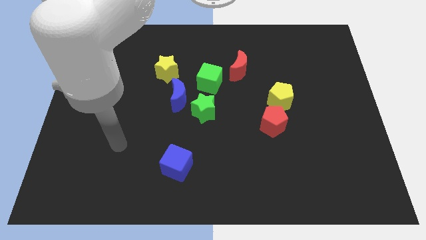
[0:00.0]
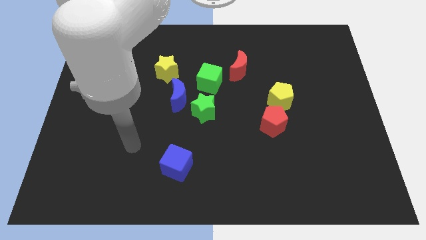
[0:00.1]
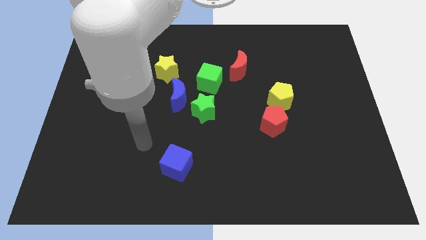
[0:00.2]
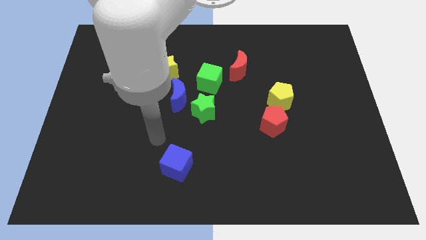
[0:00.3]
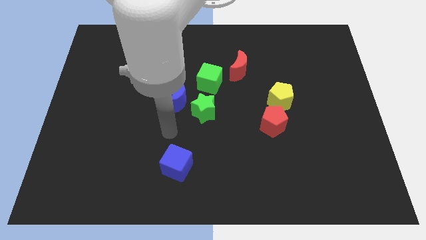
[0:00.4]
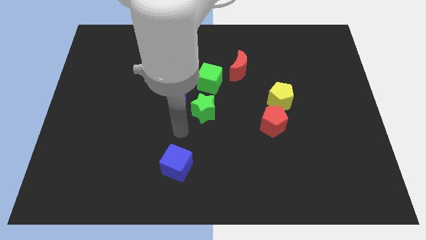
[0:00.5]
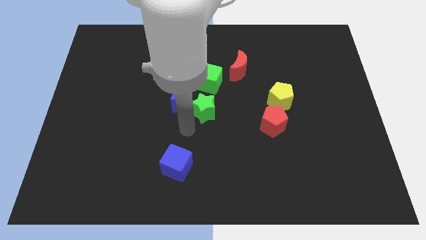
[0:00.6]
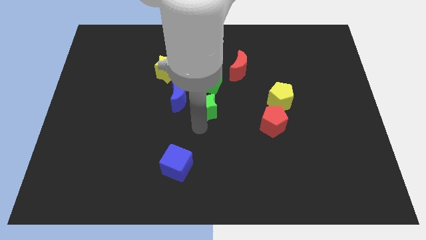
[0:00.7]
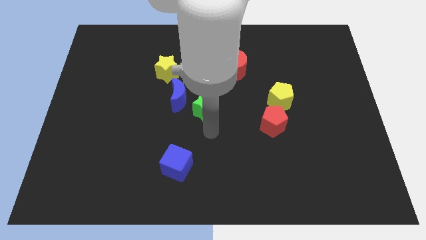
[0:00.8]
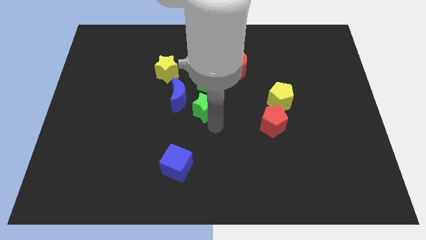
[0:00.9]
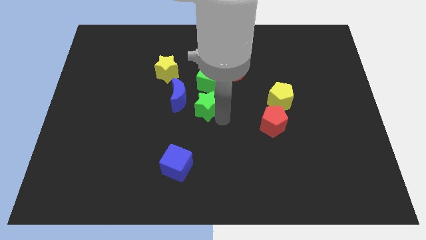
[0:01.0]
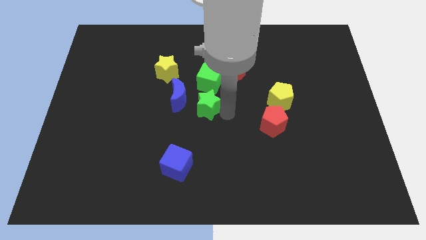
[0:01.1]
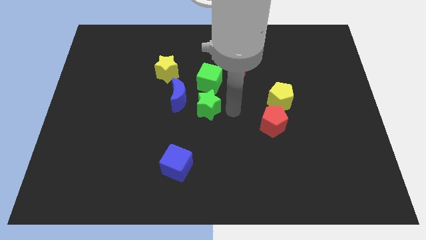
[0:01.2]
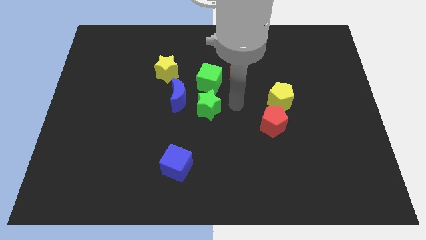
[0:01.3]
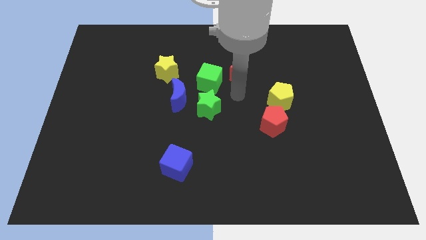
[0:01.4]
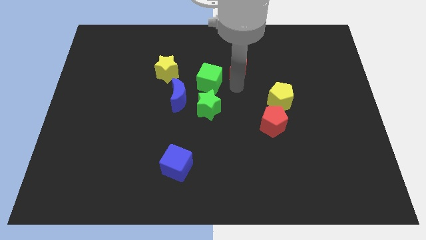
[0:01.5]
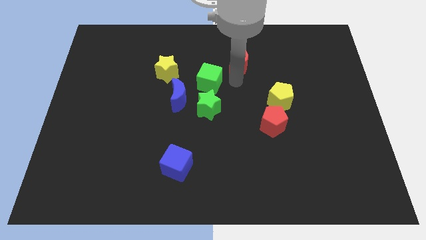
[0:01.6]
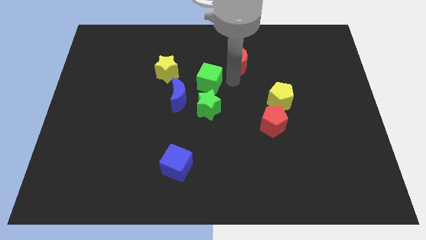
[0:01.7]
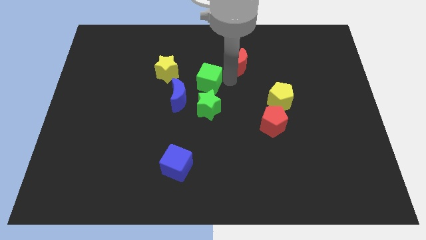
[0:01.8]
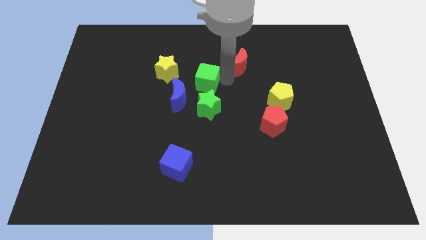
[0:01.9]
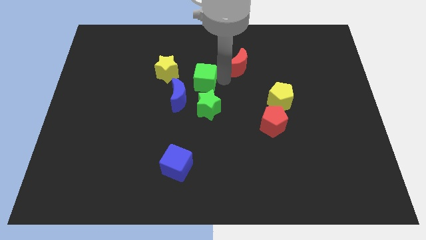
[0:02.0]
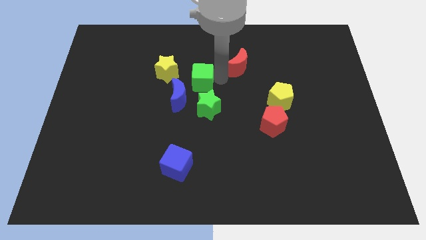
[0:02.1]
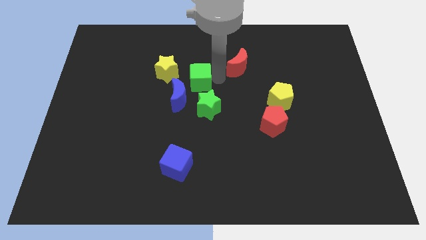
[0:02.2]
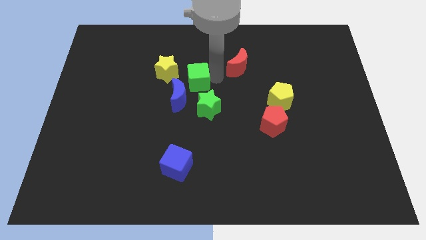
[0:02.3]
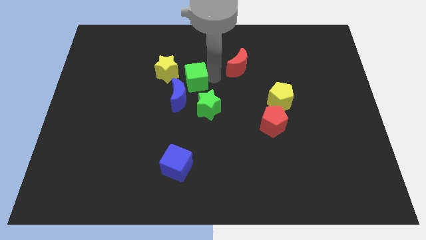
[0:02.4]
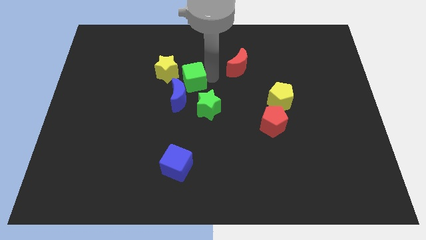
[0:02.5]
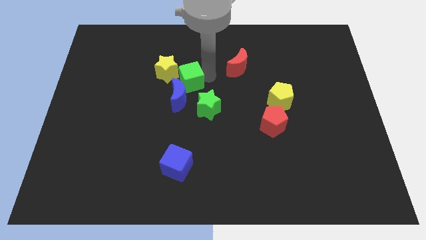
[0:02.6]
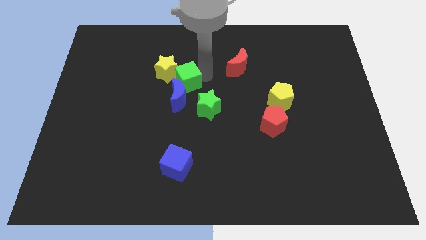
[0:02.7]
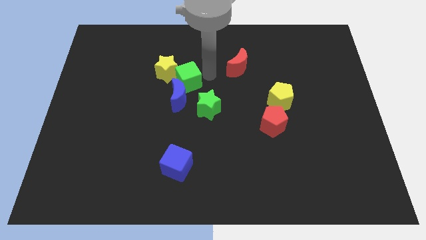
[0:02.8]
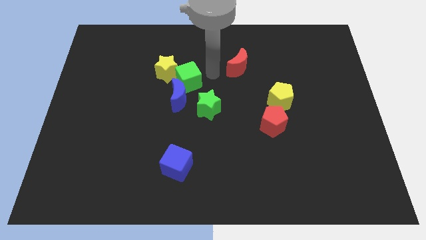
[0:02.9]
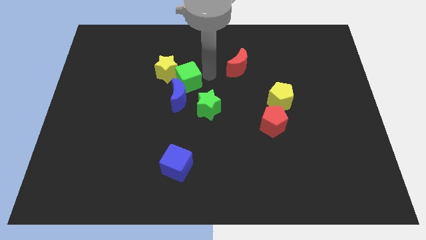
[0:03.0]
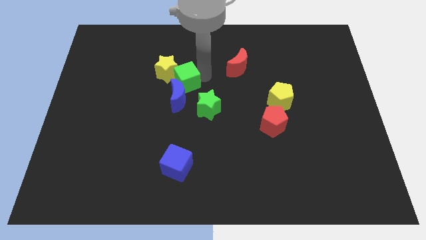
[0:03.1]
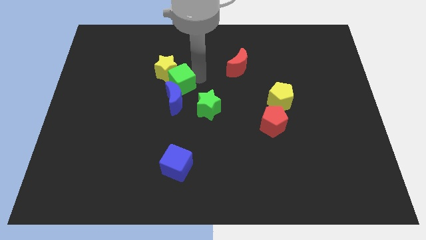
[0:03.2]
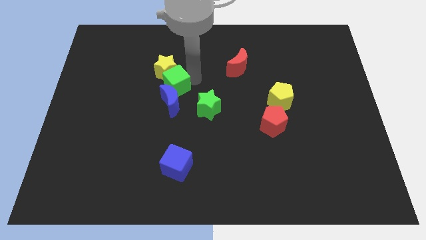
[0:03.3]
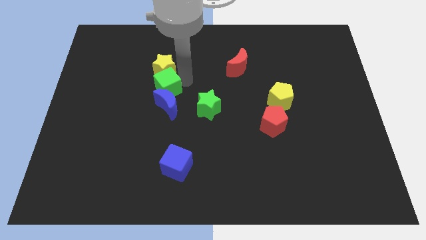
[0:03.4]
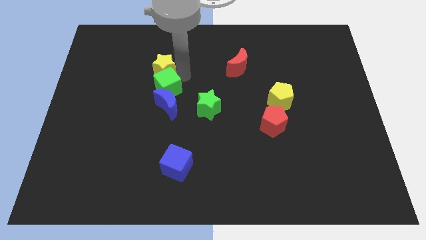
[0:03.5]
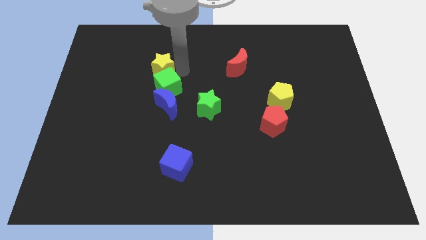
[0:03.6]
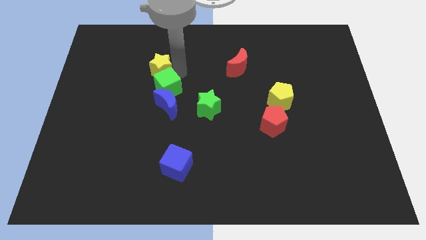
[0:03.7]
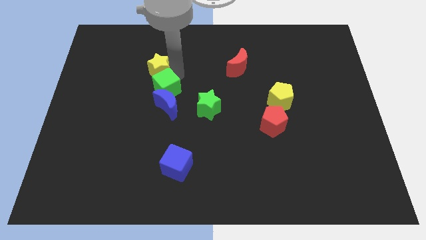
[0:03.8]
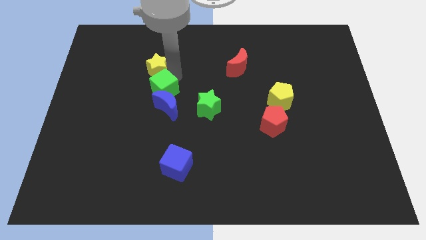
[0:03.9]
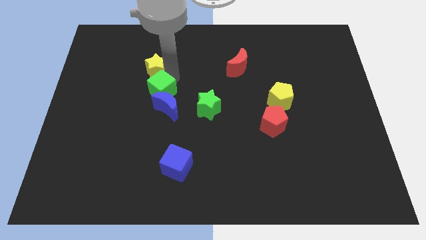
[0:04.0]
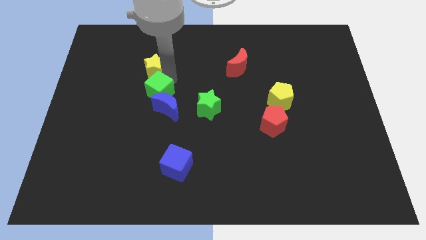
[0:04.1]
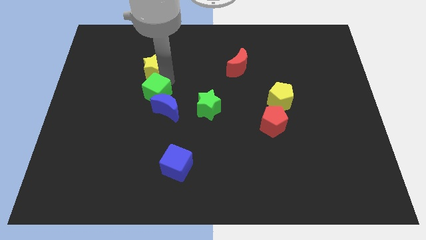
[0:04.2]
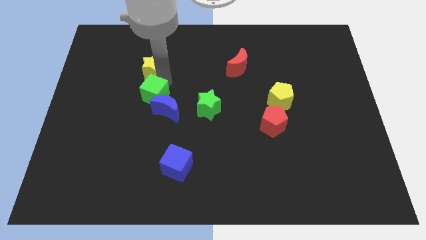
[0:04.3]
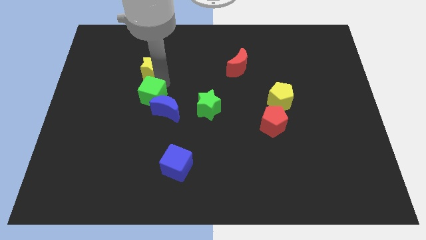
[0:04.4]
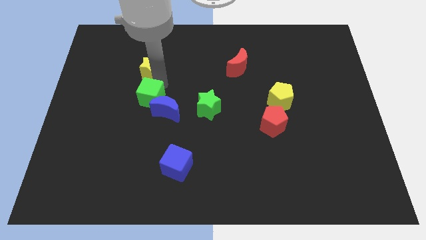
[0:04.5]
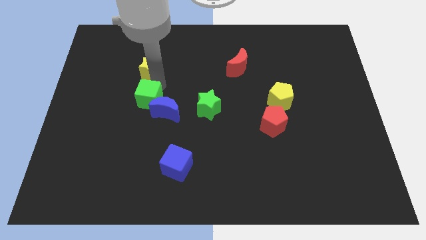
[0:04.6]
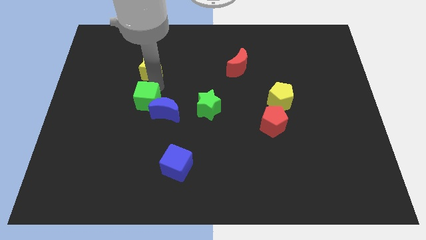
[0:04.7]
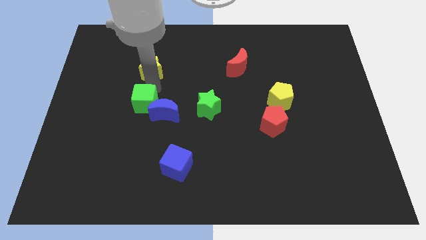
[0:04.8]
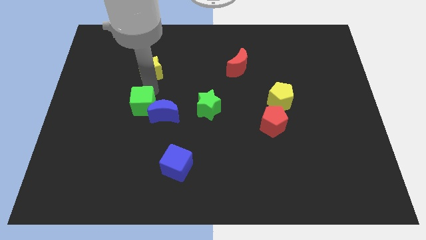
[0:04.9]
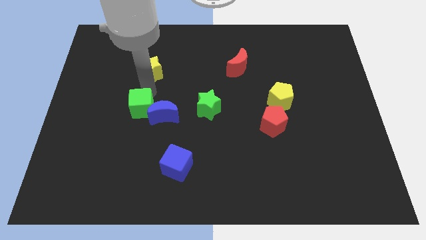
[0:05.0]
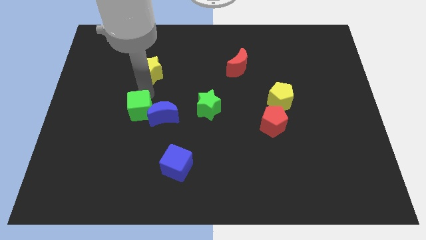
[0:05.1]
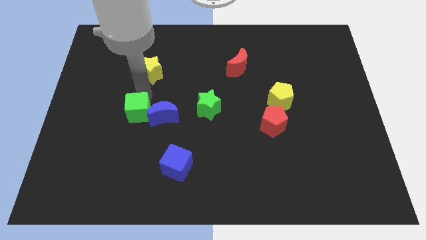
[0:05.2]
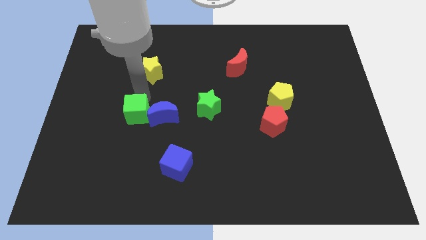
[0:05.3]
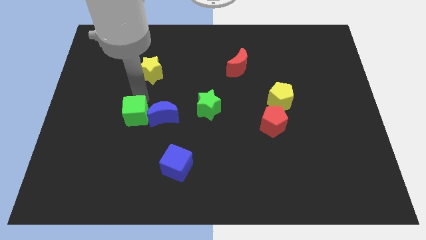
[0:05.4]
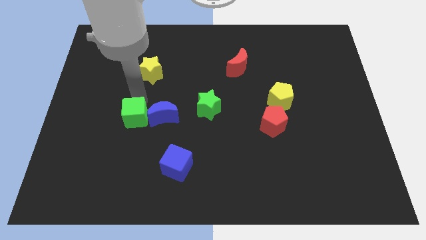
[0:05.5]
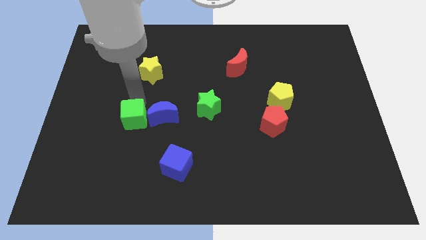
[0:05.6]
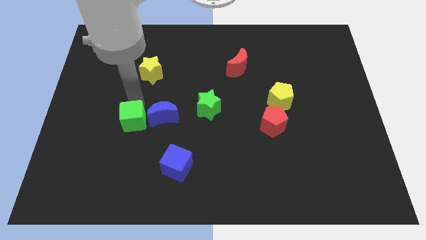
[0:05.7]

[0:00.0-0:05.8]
move the green cube down and then to the left

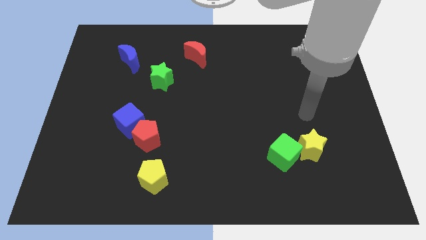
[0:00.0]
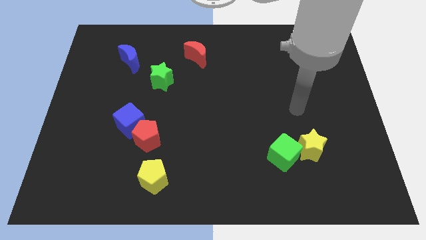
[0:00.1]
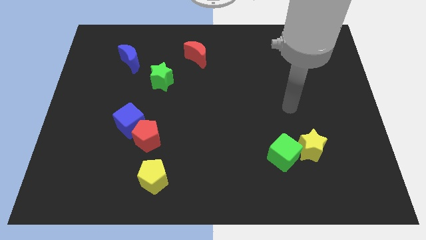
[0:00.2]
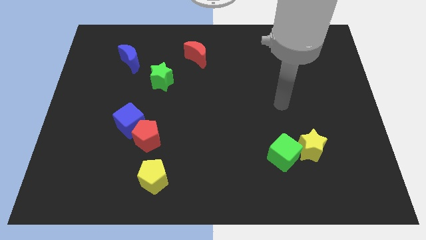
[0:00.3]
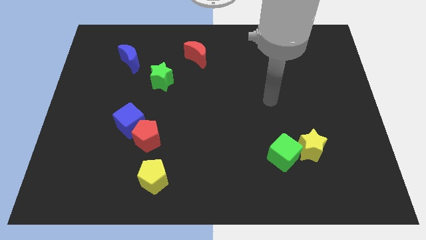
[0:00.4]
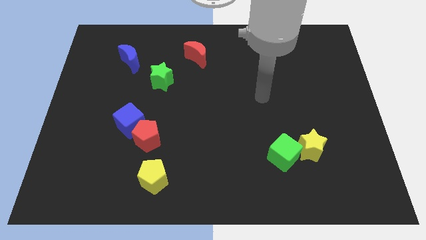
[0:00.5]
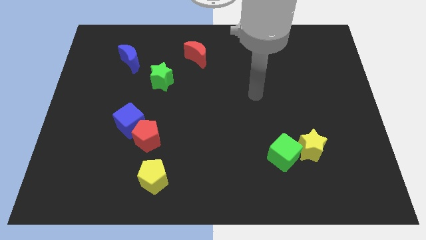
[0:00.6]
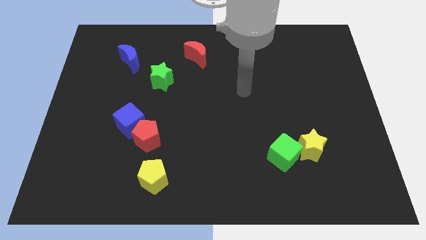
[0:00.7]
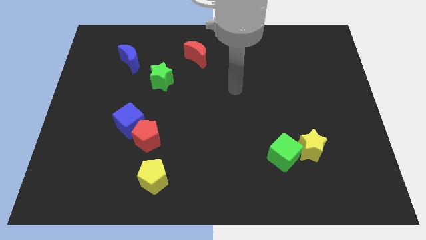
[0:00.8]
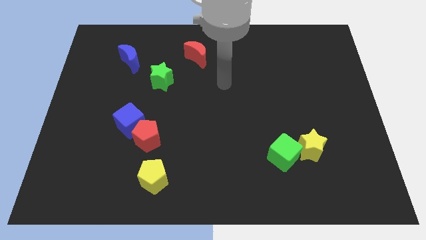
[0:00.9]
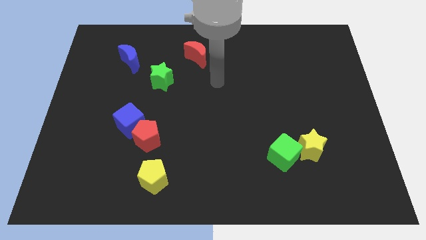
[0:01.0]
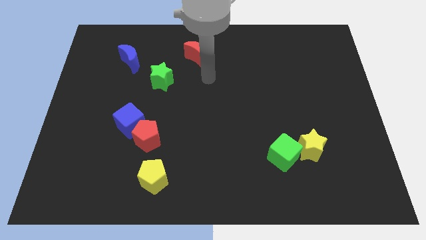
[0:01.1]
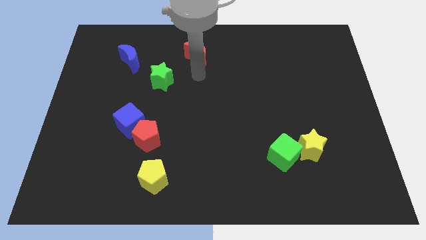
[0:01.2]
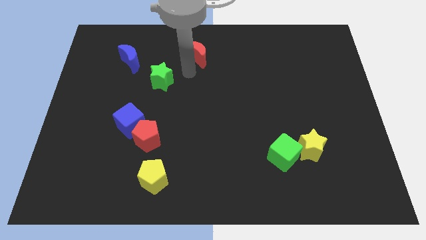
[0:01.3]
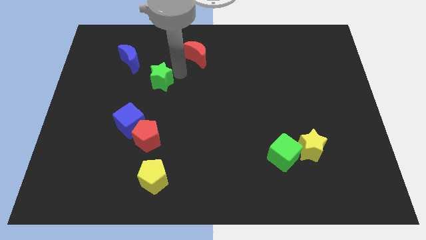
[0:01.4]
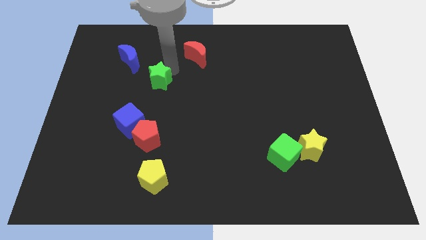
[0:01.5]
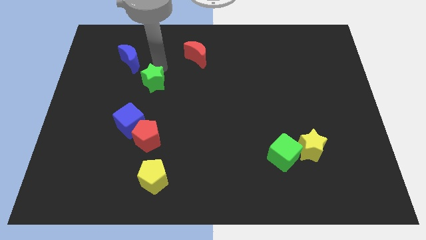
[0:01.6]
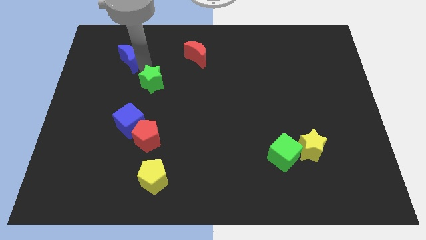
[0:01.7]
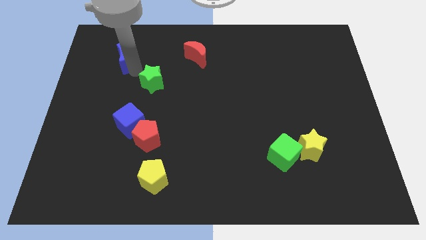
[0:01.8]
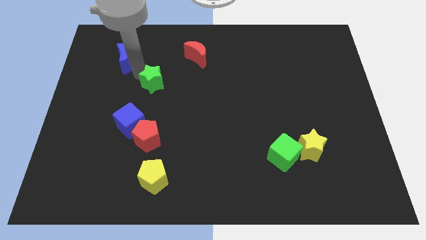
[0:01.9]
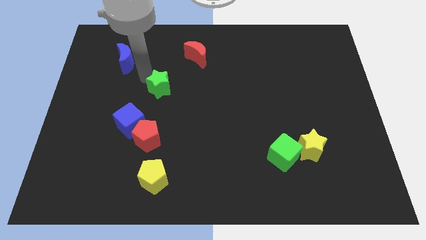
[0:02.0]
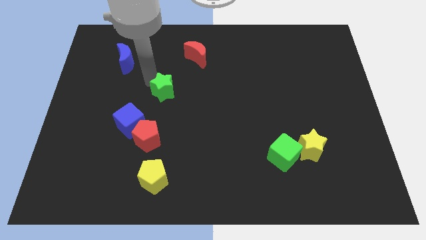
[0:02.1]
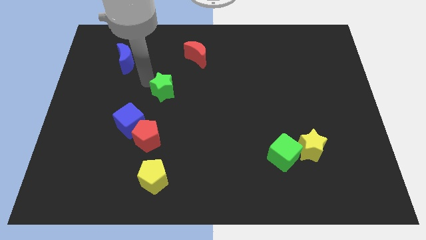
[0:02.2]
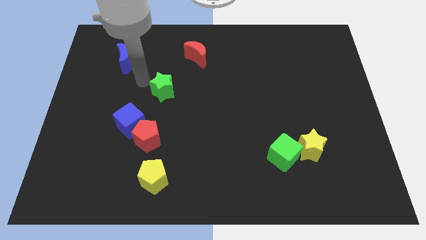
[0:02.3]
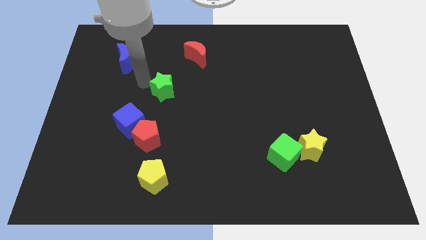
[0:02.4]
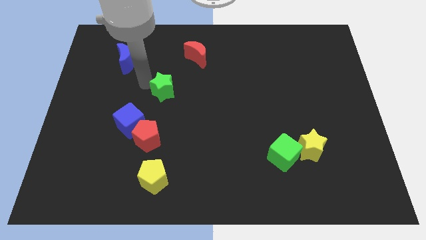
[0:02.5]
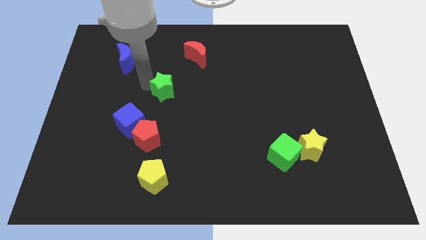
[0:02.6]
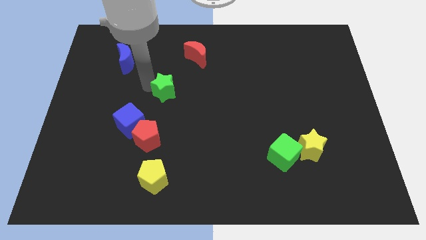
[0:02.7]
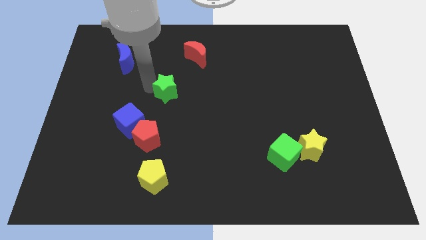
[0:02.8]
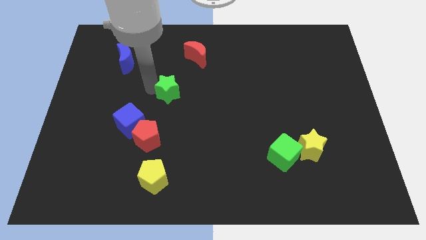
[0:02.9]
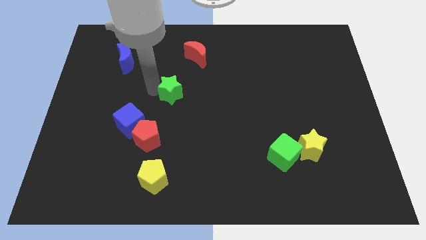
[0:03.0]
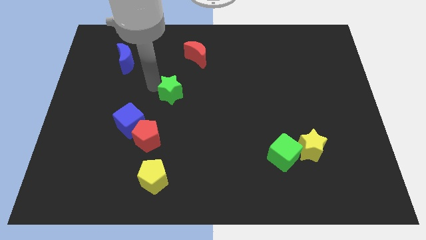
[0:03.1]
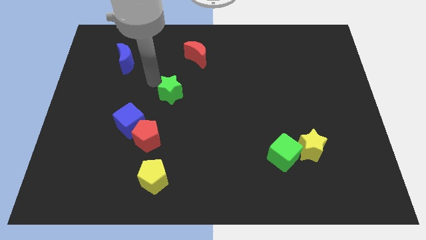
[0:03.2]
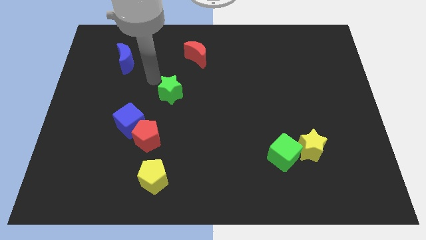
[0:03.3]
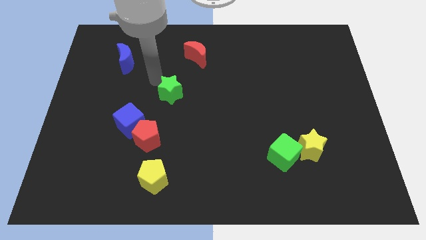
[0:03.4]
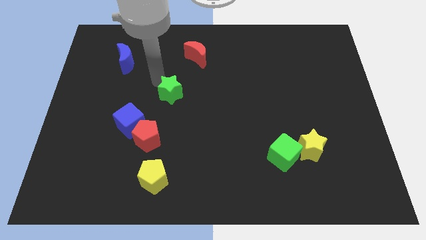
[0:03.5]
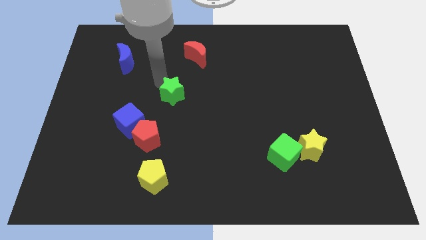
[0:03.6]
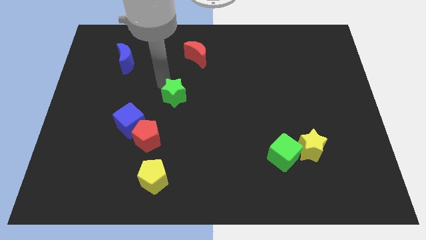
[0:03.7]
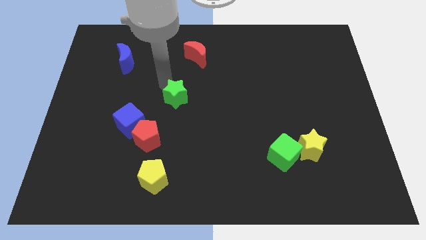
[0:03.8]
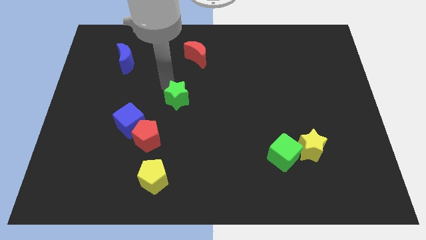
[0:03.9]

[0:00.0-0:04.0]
slightly slide the green star down and then right
